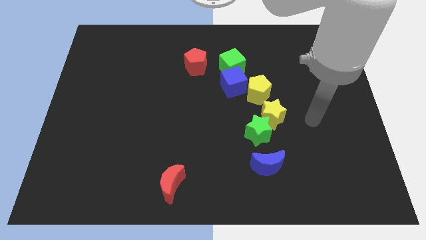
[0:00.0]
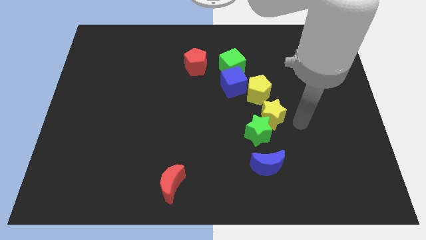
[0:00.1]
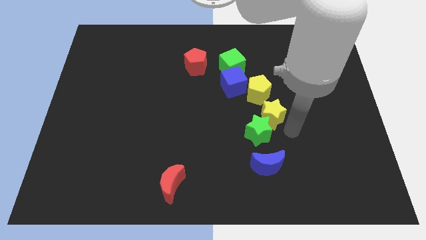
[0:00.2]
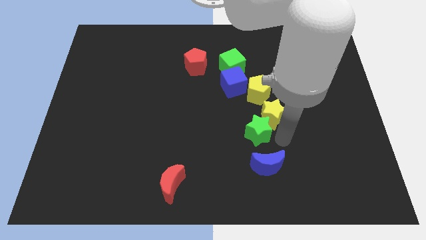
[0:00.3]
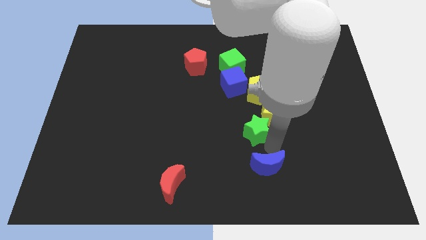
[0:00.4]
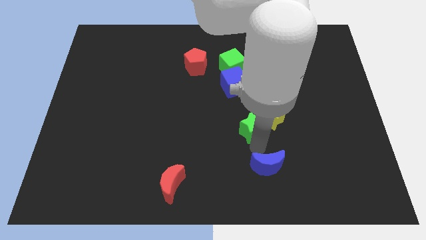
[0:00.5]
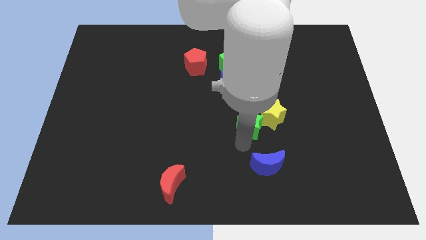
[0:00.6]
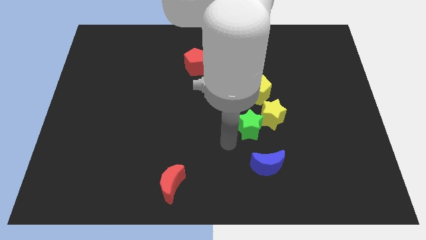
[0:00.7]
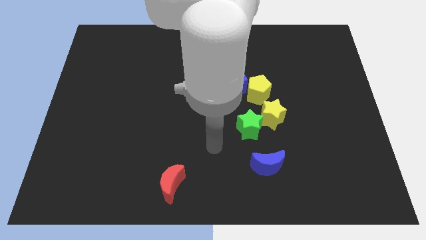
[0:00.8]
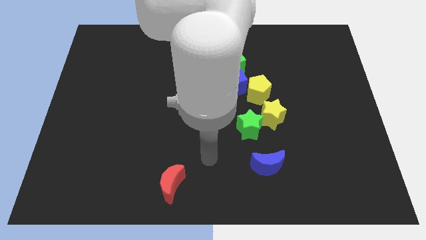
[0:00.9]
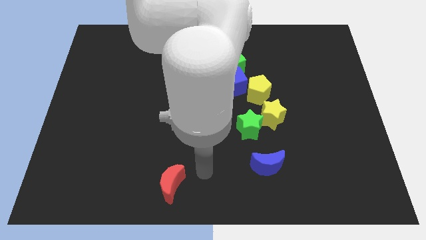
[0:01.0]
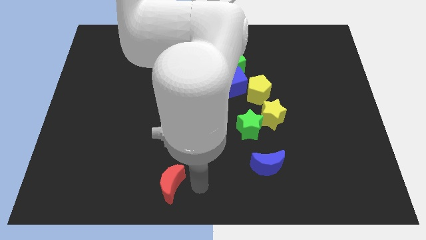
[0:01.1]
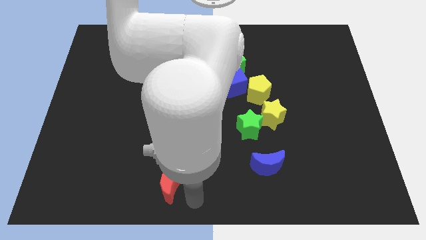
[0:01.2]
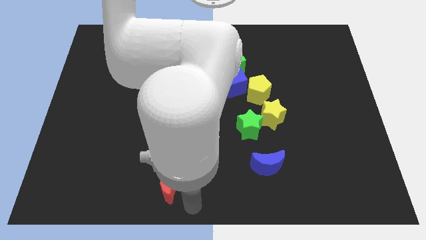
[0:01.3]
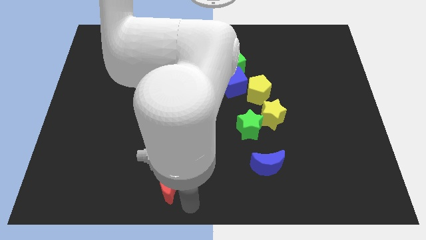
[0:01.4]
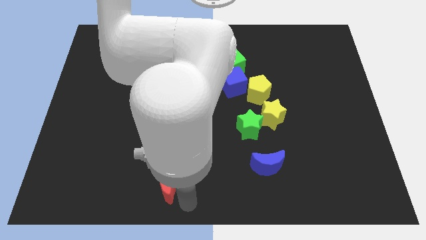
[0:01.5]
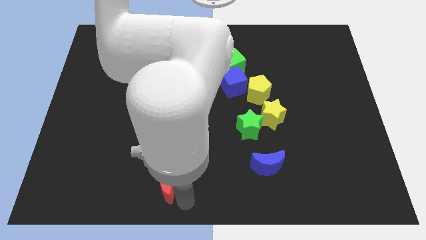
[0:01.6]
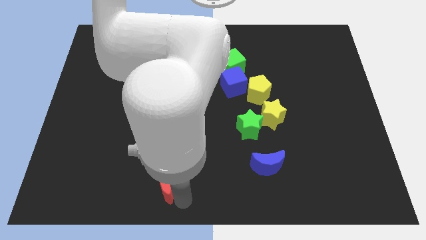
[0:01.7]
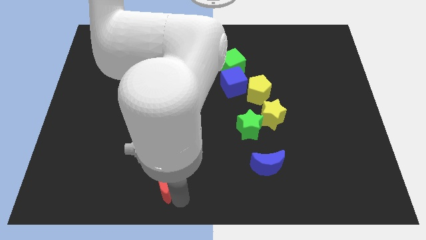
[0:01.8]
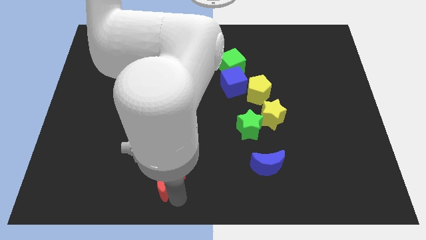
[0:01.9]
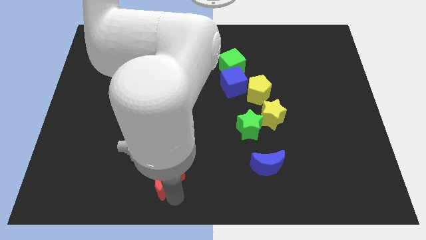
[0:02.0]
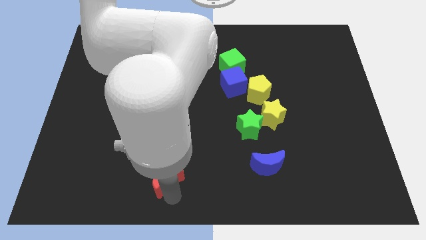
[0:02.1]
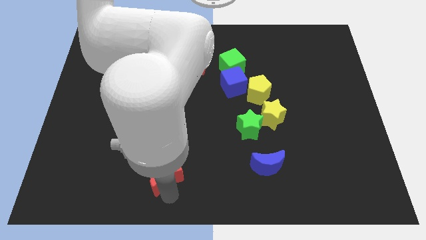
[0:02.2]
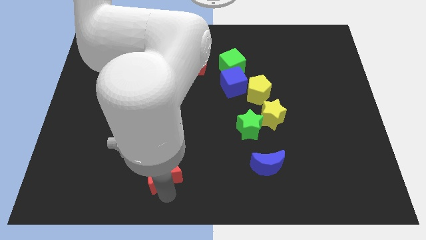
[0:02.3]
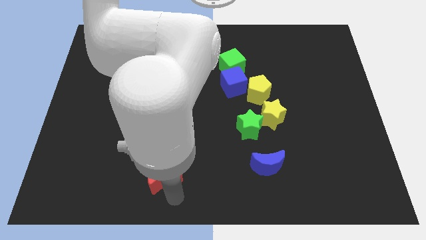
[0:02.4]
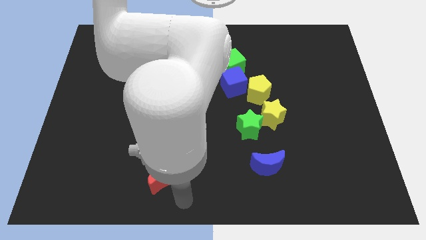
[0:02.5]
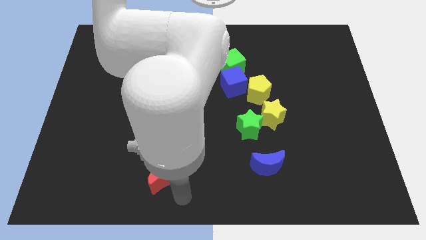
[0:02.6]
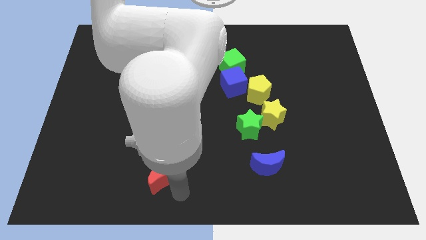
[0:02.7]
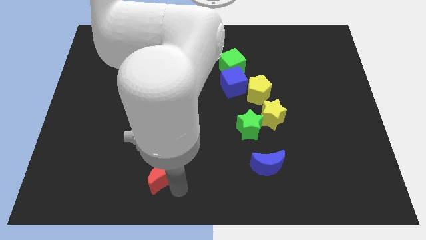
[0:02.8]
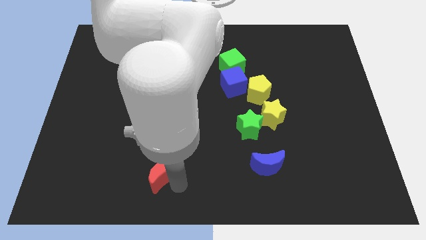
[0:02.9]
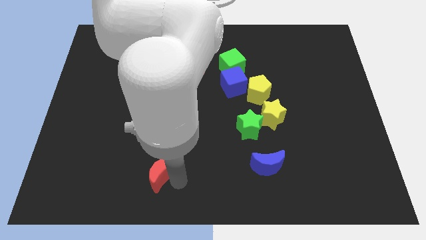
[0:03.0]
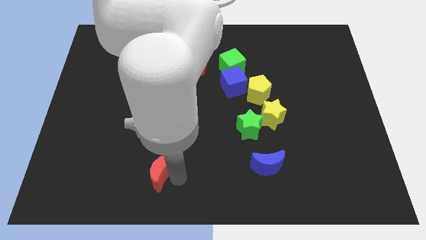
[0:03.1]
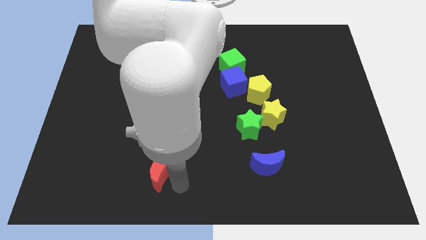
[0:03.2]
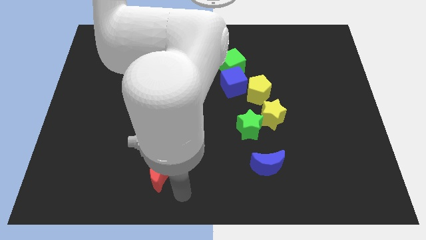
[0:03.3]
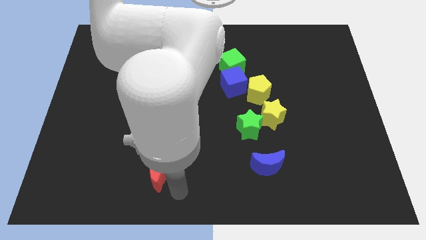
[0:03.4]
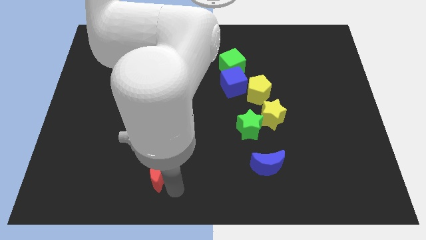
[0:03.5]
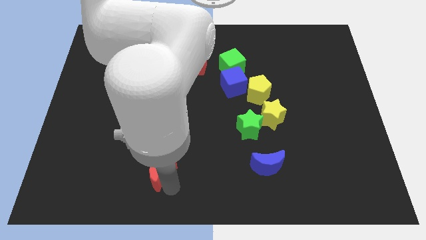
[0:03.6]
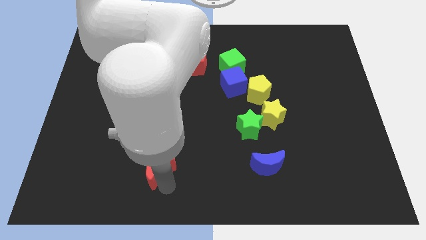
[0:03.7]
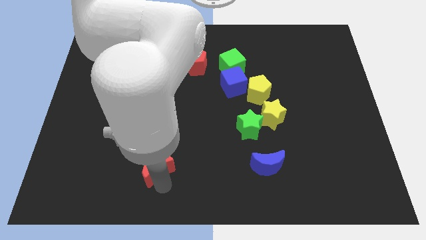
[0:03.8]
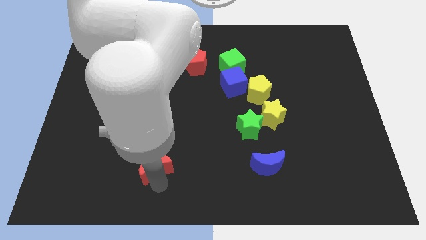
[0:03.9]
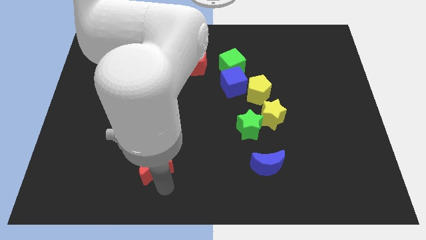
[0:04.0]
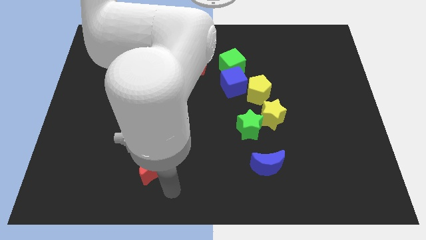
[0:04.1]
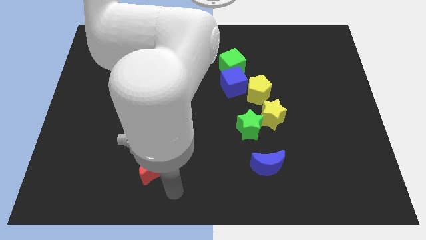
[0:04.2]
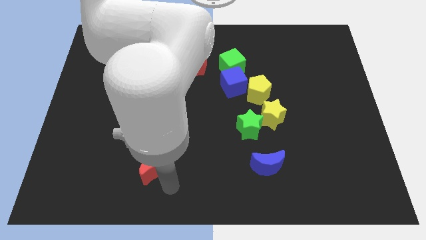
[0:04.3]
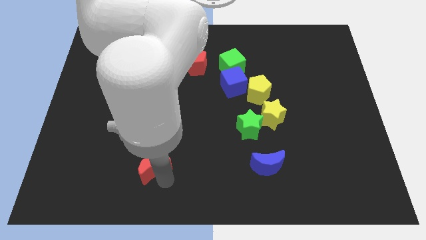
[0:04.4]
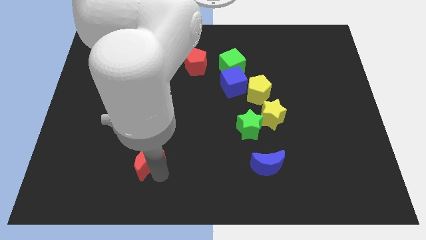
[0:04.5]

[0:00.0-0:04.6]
slide the red moon a little upwards and left diagonally

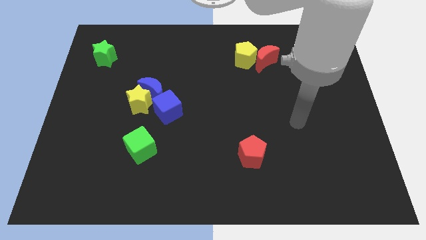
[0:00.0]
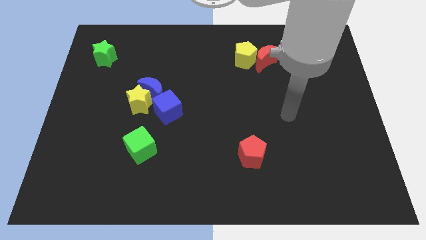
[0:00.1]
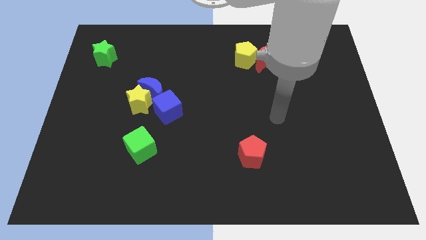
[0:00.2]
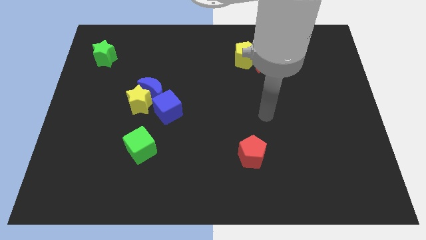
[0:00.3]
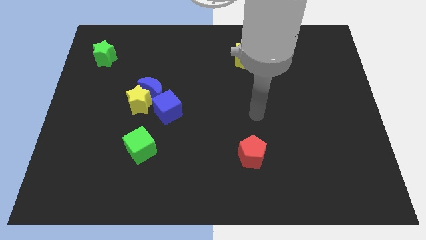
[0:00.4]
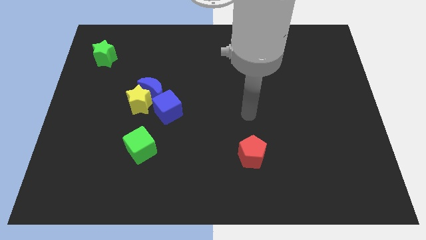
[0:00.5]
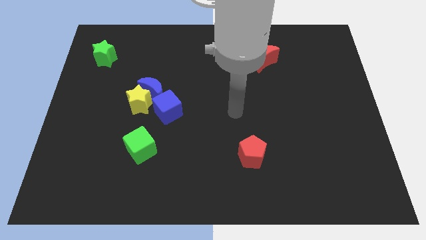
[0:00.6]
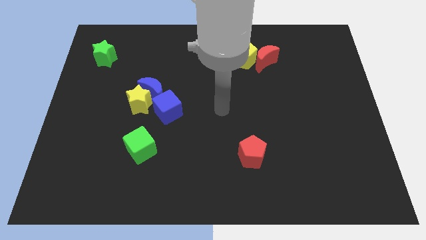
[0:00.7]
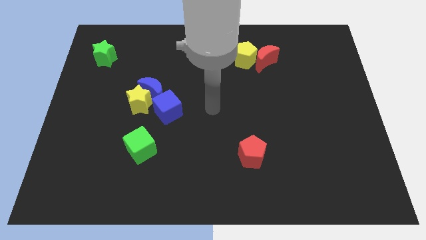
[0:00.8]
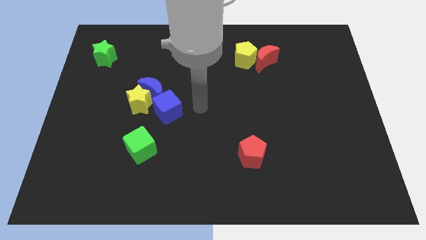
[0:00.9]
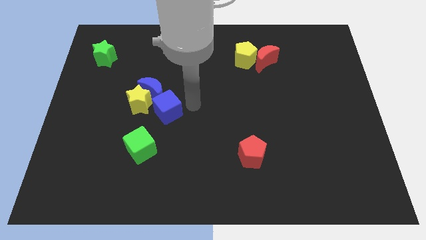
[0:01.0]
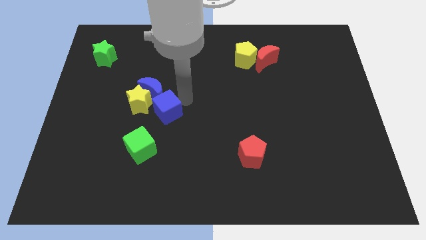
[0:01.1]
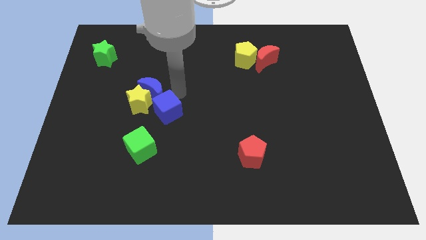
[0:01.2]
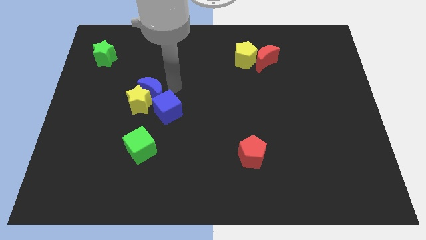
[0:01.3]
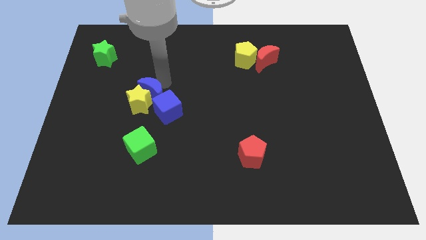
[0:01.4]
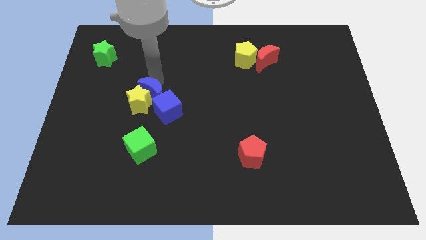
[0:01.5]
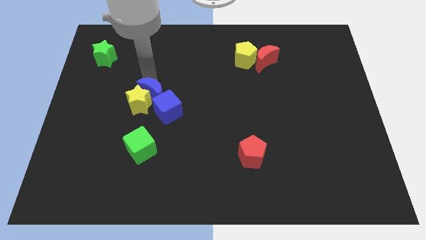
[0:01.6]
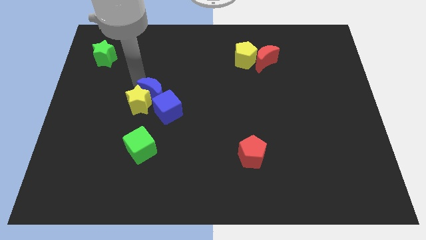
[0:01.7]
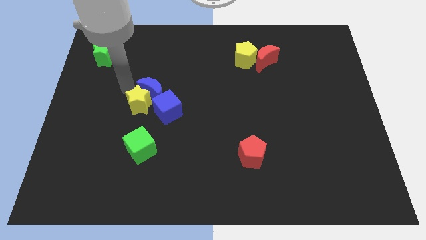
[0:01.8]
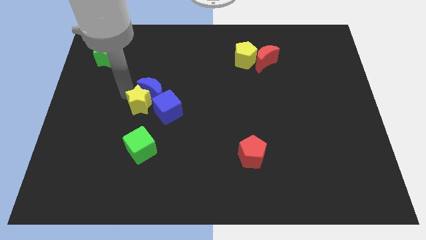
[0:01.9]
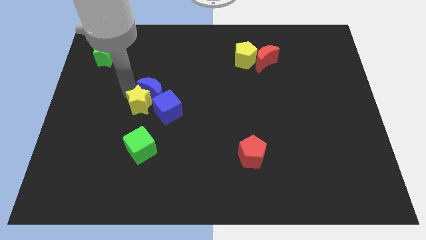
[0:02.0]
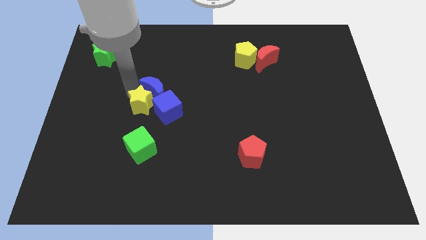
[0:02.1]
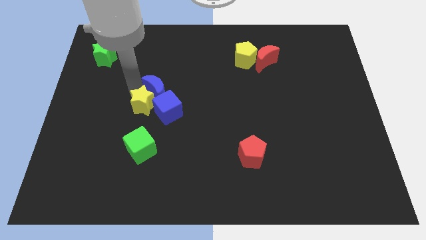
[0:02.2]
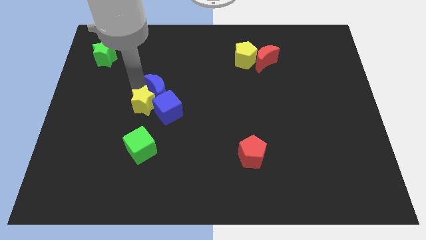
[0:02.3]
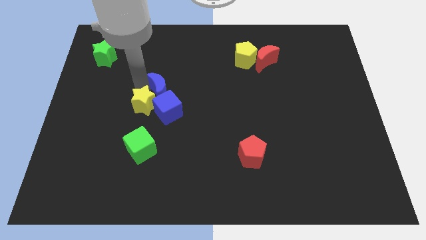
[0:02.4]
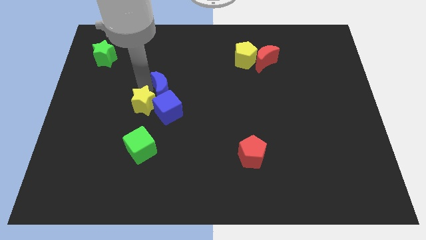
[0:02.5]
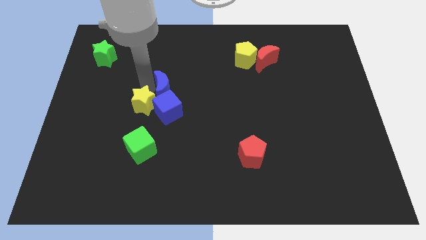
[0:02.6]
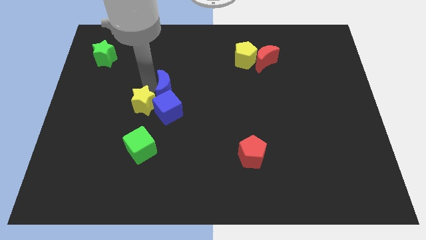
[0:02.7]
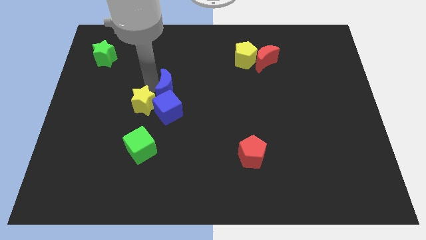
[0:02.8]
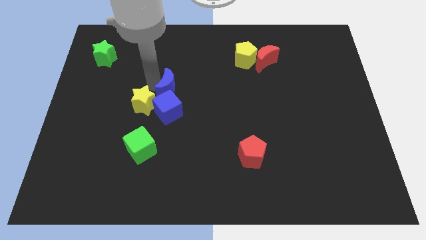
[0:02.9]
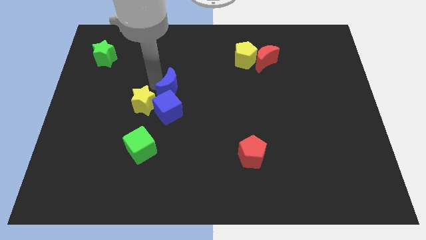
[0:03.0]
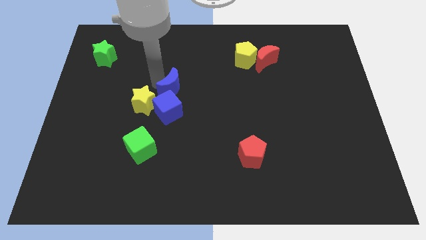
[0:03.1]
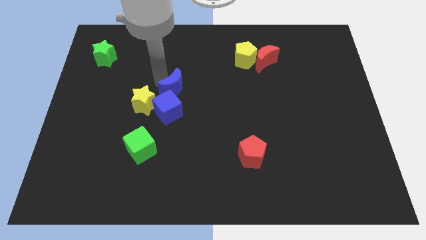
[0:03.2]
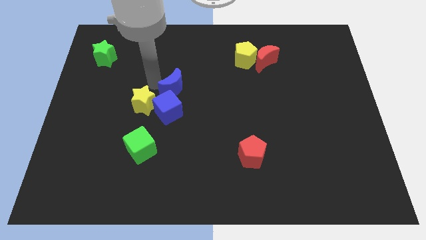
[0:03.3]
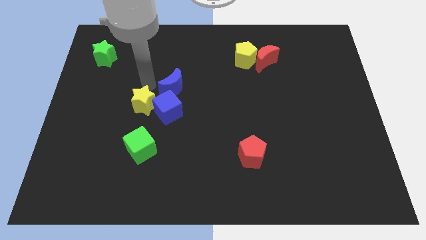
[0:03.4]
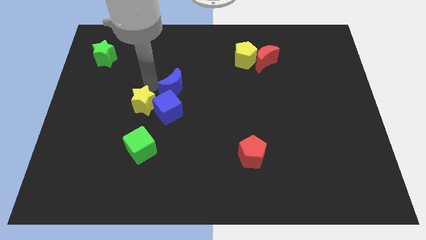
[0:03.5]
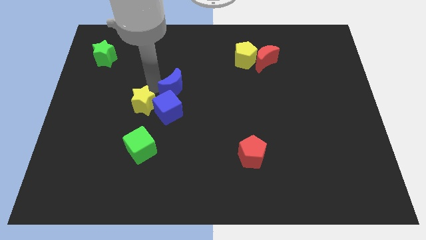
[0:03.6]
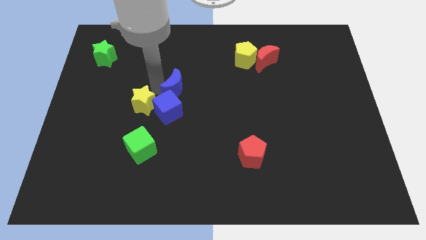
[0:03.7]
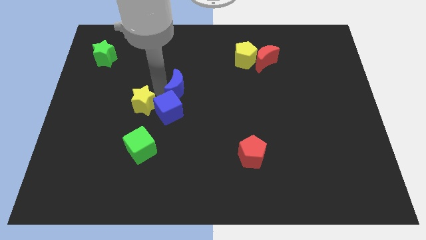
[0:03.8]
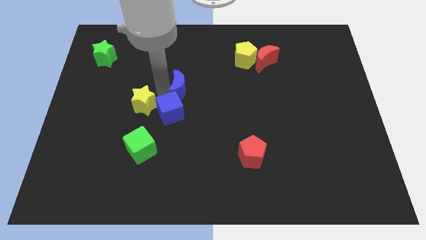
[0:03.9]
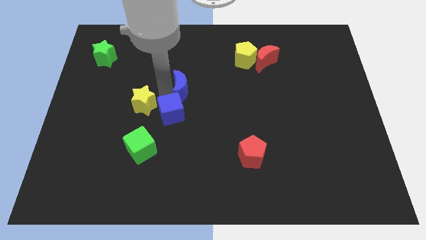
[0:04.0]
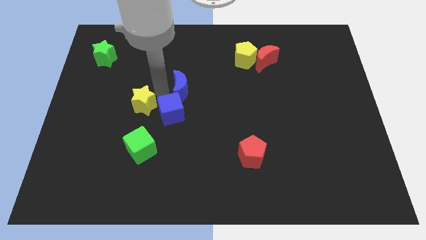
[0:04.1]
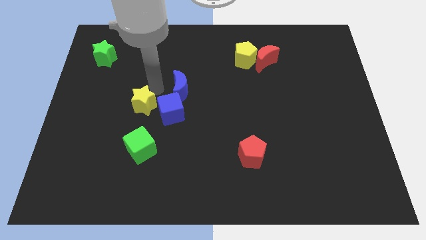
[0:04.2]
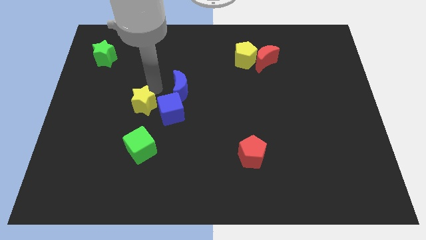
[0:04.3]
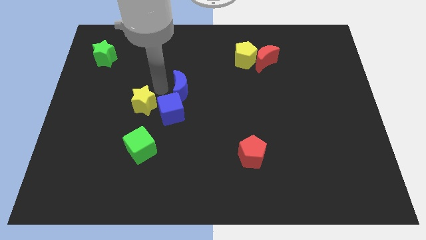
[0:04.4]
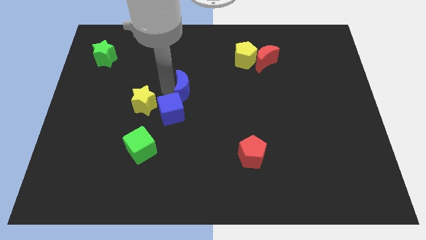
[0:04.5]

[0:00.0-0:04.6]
push the blue moon right slightly
